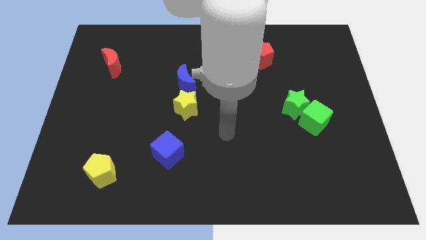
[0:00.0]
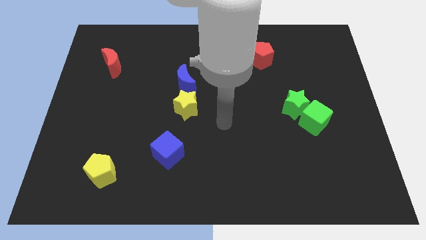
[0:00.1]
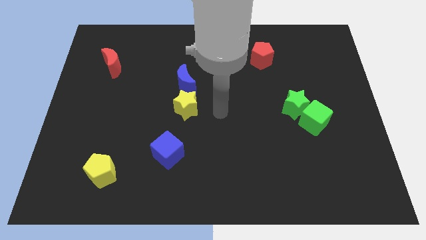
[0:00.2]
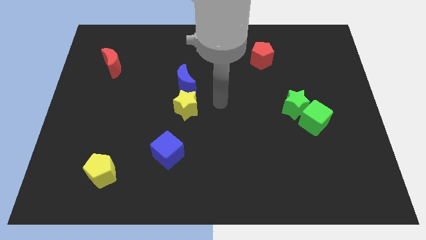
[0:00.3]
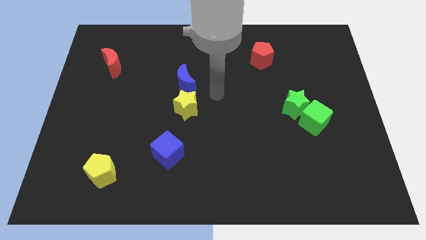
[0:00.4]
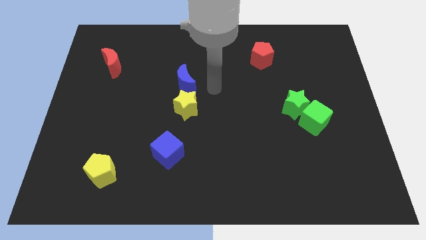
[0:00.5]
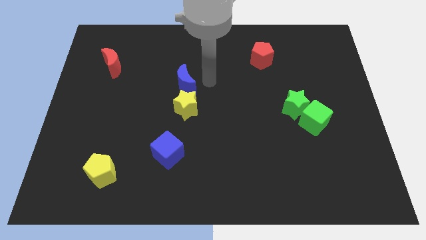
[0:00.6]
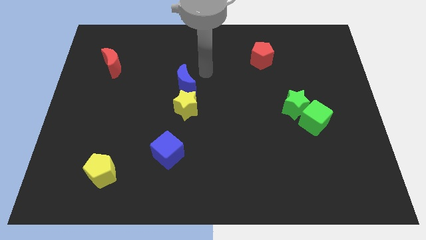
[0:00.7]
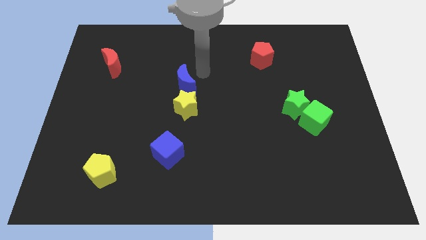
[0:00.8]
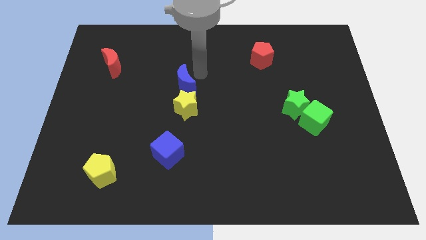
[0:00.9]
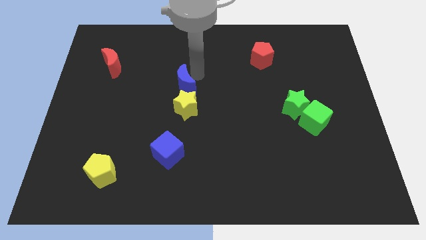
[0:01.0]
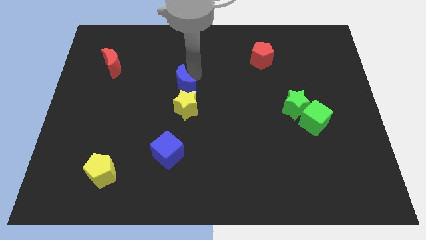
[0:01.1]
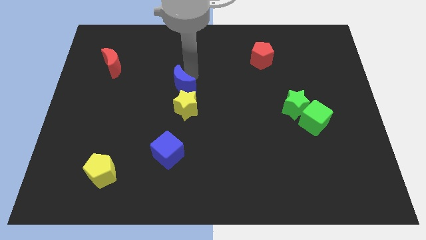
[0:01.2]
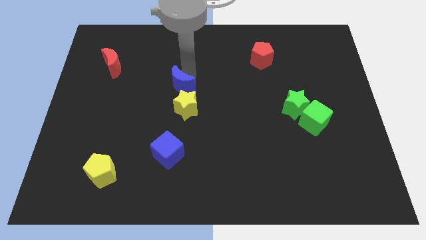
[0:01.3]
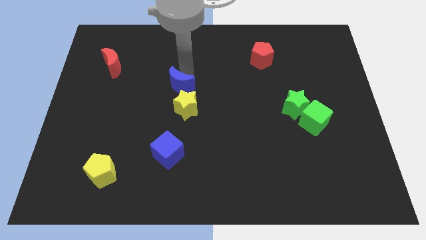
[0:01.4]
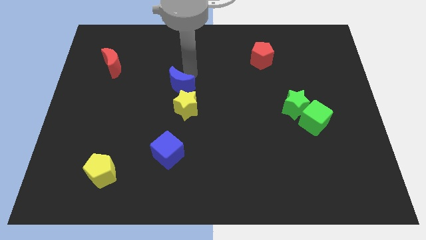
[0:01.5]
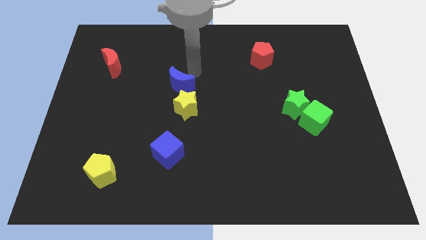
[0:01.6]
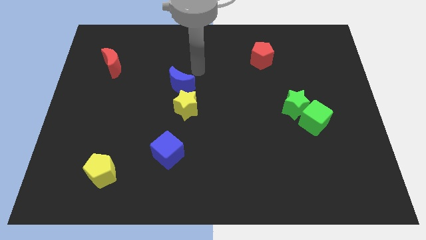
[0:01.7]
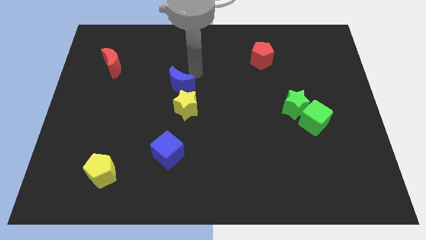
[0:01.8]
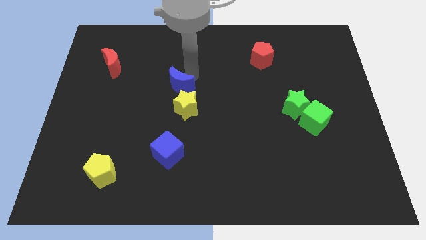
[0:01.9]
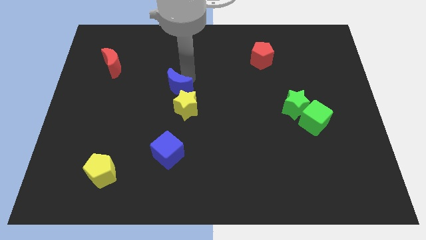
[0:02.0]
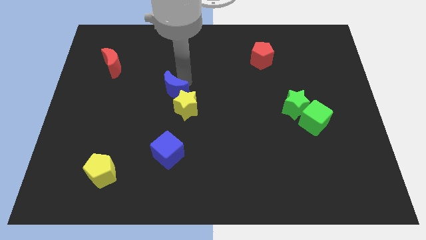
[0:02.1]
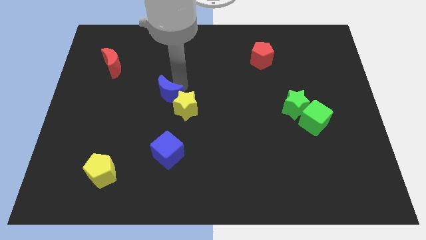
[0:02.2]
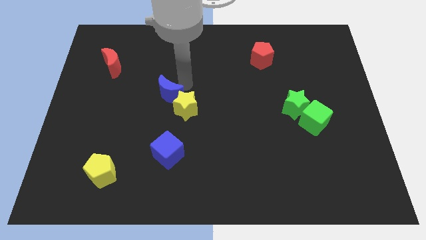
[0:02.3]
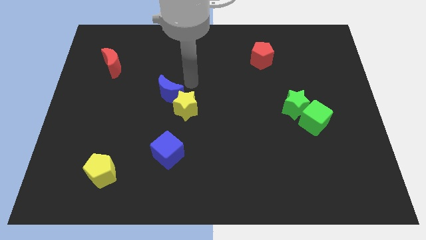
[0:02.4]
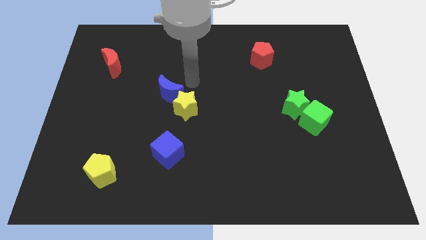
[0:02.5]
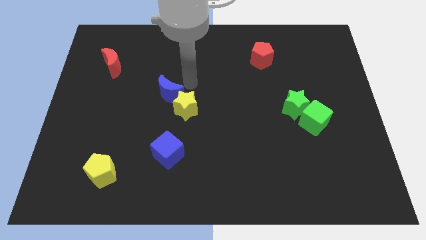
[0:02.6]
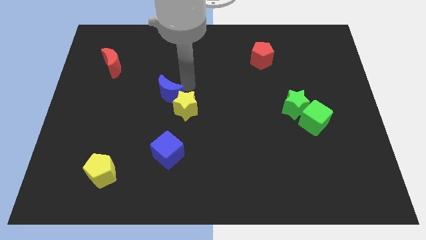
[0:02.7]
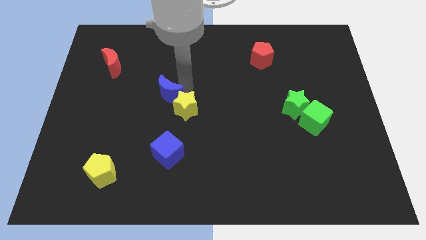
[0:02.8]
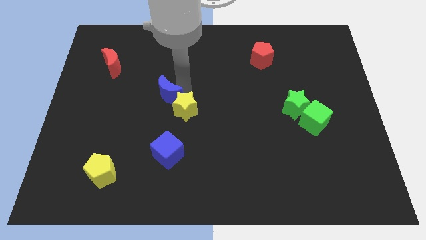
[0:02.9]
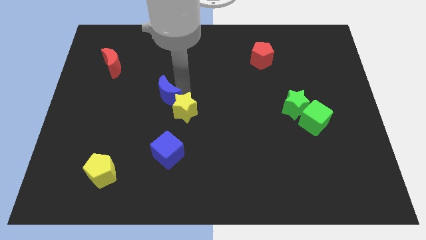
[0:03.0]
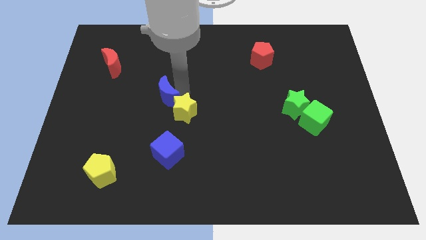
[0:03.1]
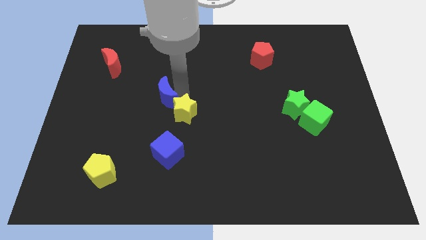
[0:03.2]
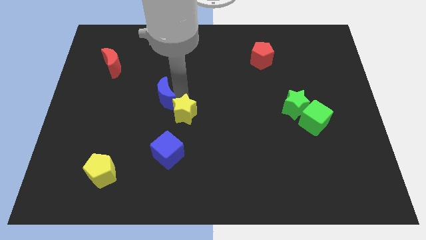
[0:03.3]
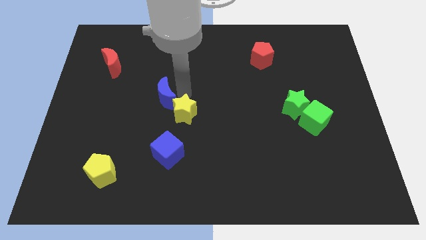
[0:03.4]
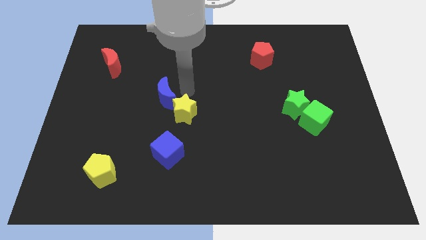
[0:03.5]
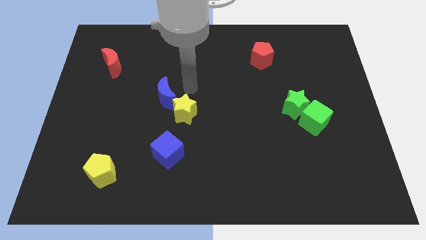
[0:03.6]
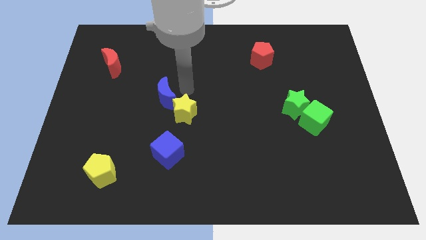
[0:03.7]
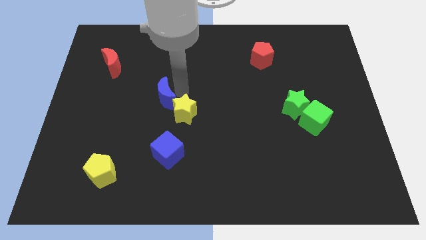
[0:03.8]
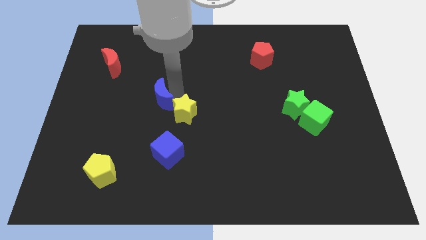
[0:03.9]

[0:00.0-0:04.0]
move the blue moon slightly down and left diagonally

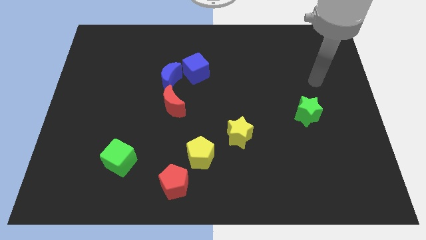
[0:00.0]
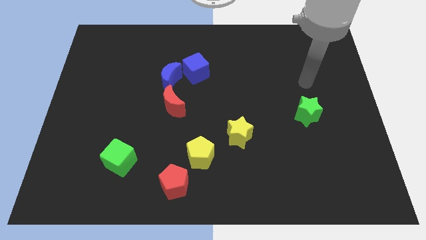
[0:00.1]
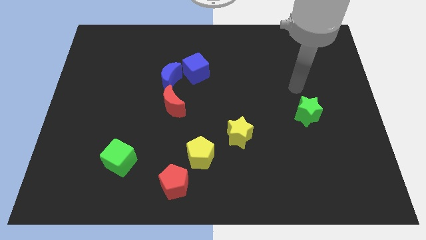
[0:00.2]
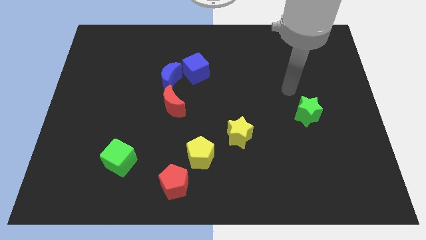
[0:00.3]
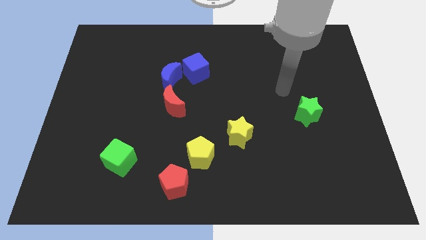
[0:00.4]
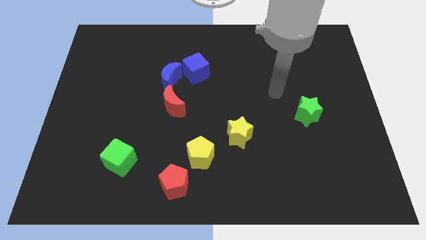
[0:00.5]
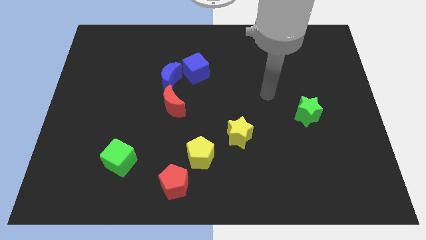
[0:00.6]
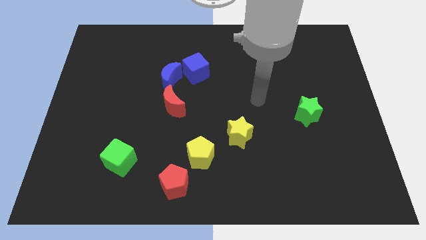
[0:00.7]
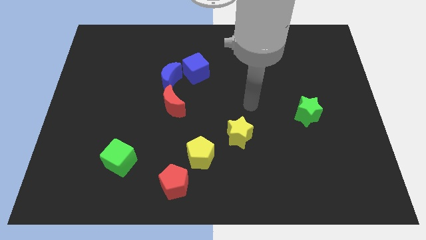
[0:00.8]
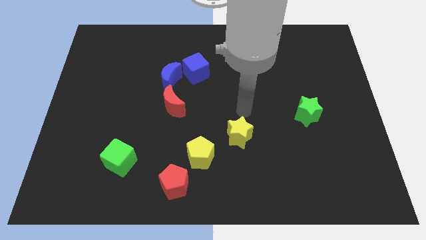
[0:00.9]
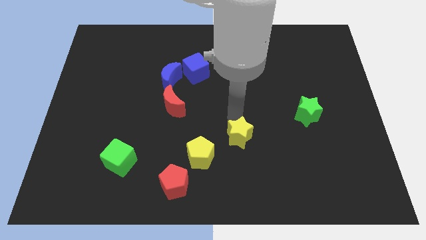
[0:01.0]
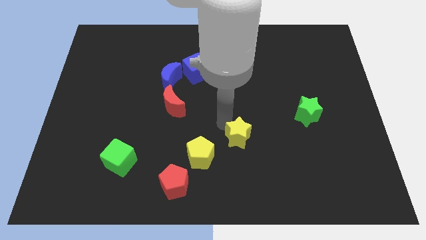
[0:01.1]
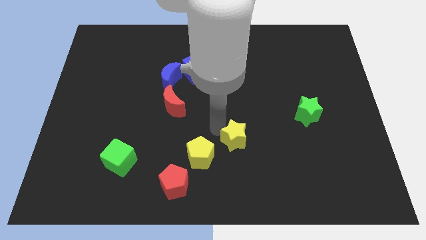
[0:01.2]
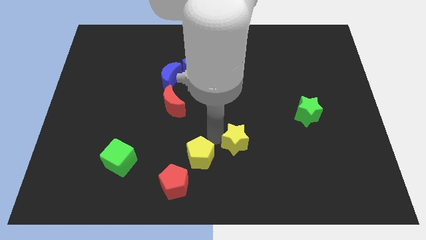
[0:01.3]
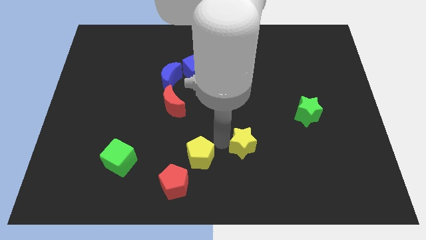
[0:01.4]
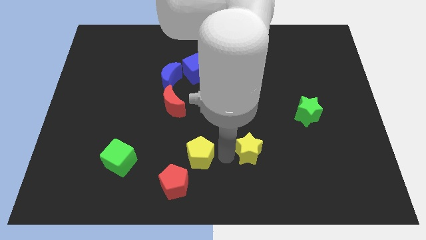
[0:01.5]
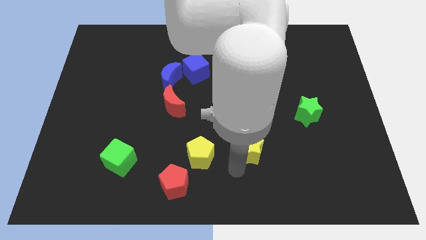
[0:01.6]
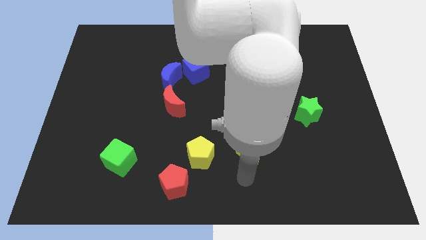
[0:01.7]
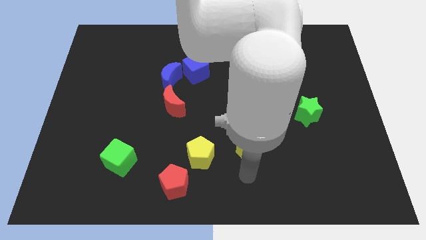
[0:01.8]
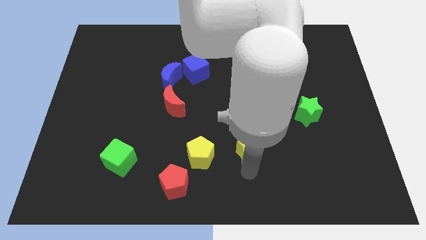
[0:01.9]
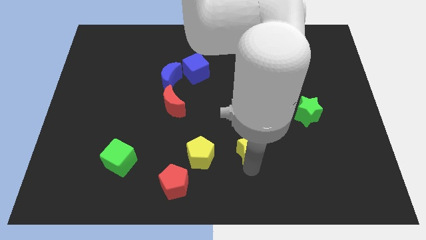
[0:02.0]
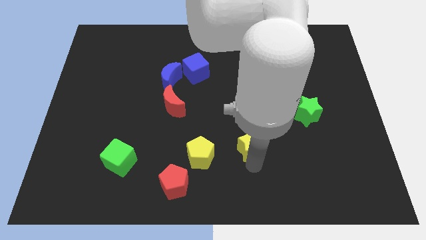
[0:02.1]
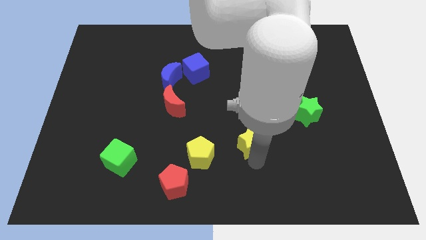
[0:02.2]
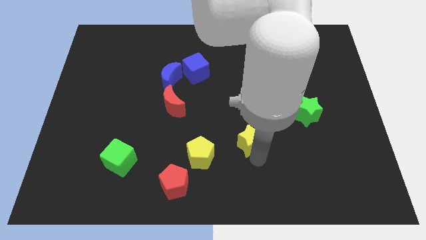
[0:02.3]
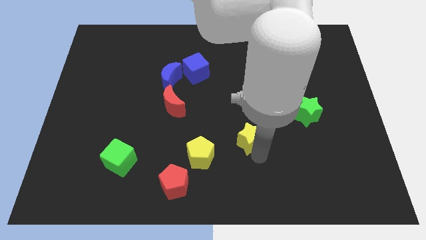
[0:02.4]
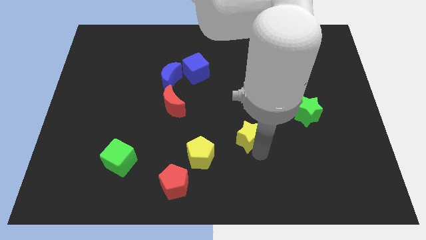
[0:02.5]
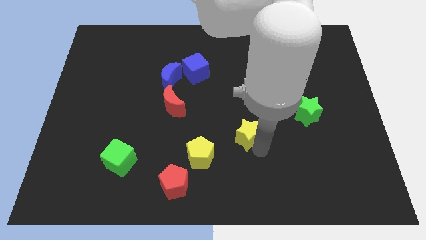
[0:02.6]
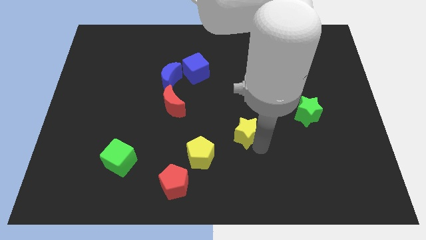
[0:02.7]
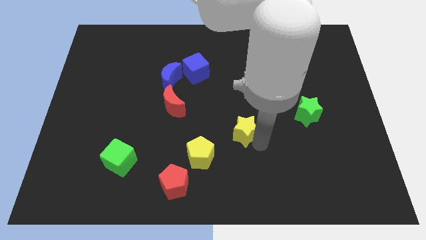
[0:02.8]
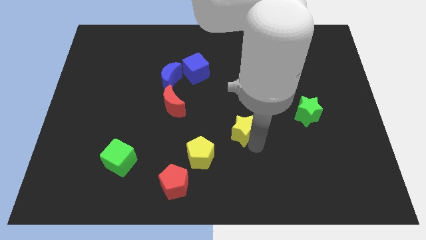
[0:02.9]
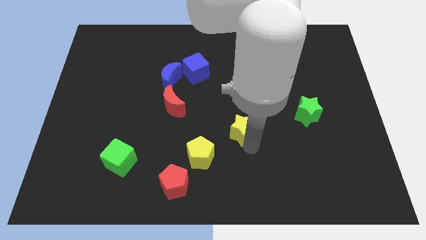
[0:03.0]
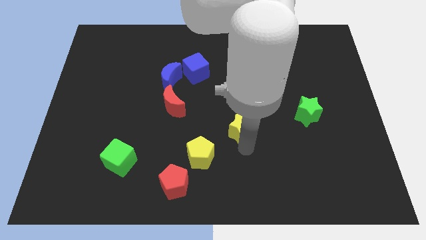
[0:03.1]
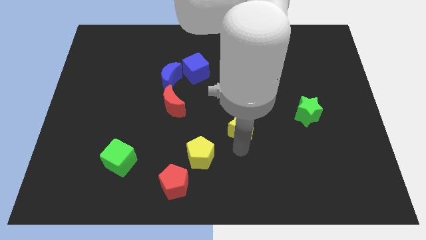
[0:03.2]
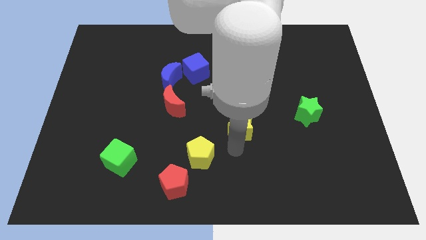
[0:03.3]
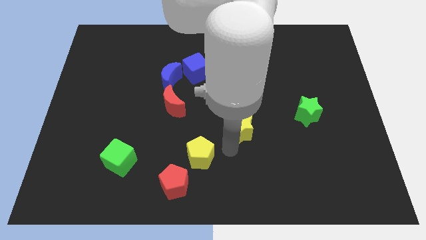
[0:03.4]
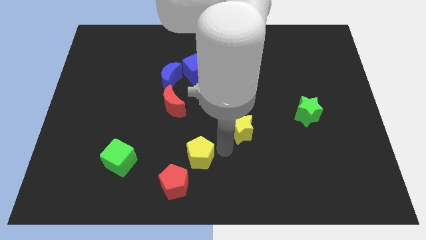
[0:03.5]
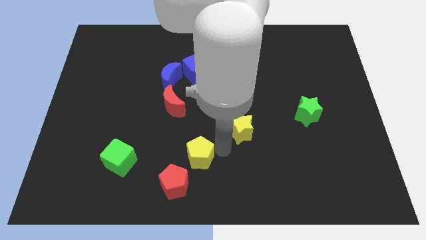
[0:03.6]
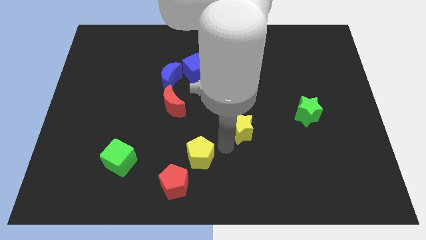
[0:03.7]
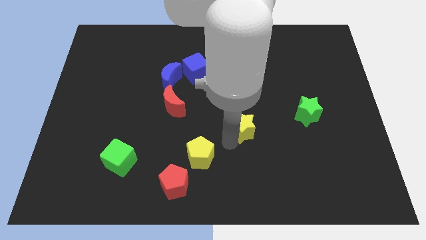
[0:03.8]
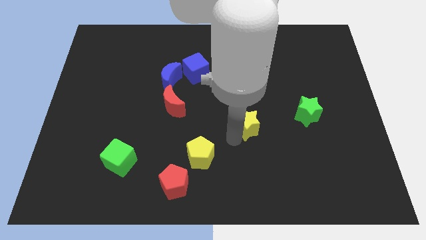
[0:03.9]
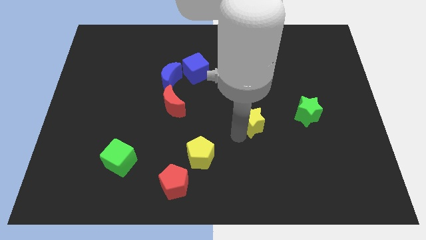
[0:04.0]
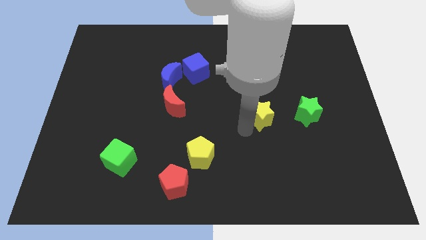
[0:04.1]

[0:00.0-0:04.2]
push the yellow star upwards and right diagonally a little
